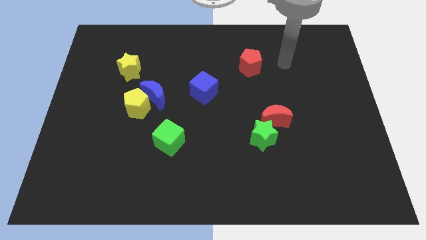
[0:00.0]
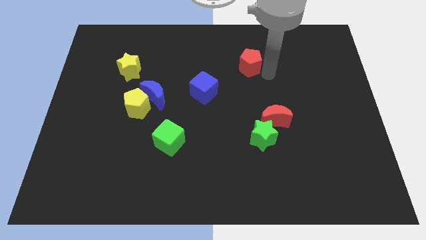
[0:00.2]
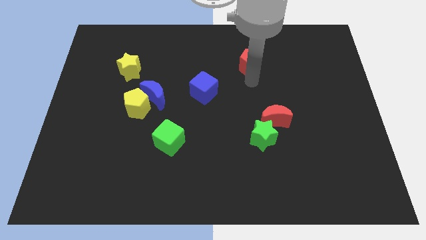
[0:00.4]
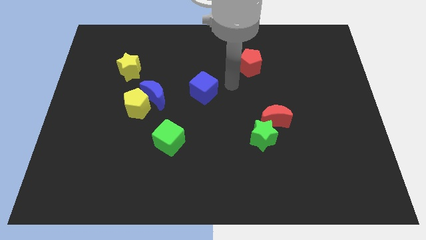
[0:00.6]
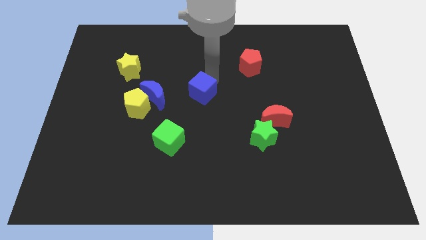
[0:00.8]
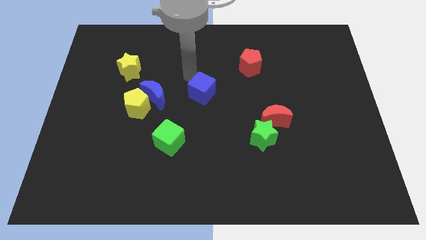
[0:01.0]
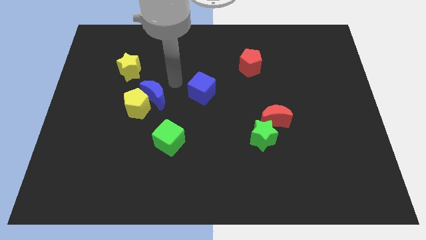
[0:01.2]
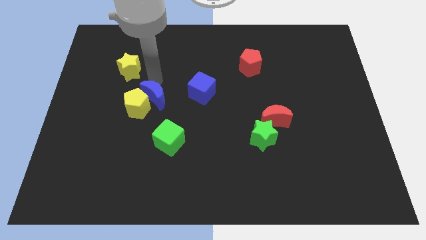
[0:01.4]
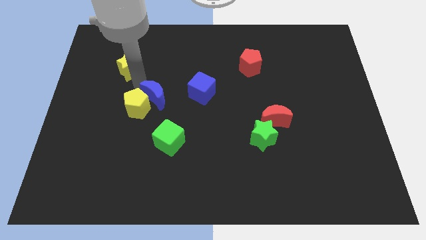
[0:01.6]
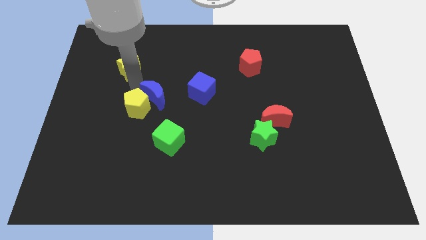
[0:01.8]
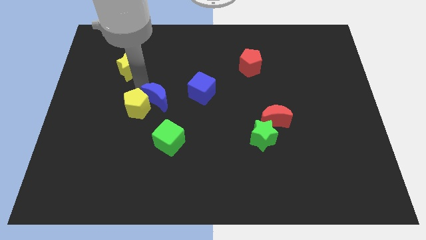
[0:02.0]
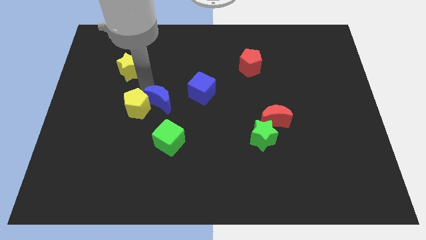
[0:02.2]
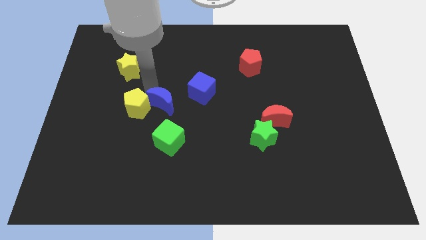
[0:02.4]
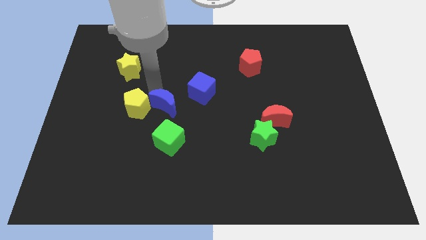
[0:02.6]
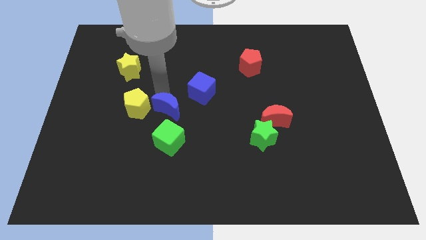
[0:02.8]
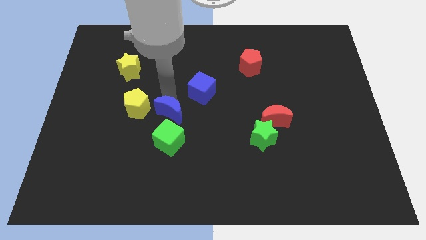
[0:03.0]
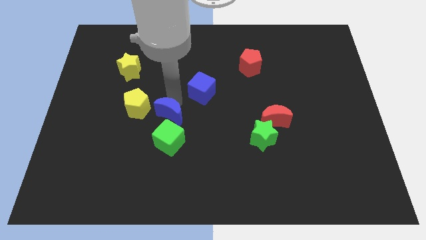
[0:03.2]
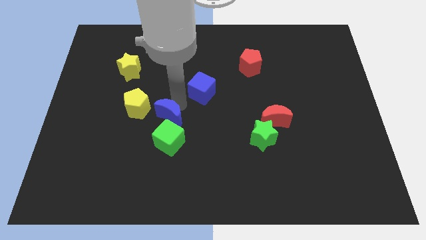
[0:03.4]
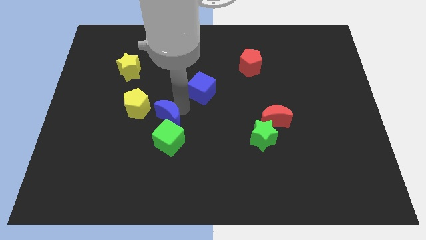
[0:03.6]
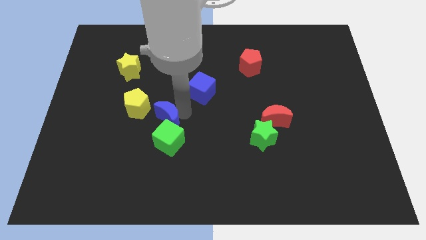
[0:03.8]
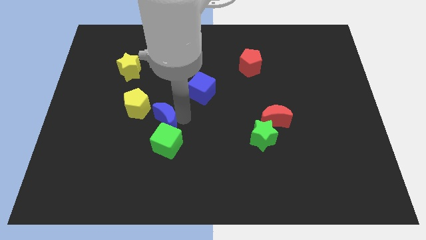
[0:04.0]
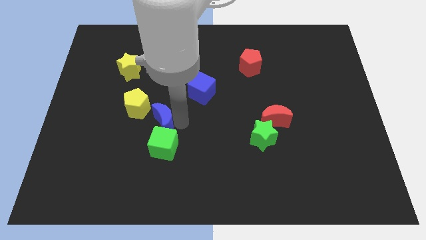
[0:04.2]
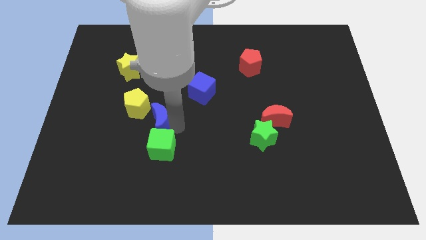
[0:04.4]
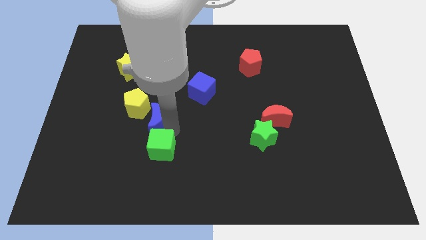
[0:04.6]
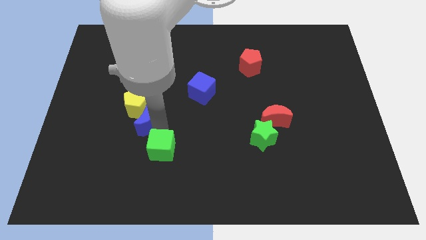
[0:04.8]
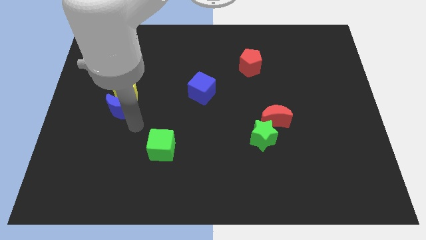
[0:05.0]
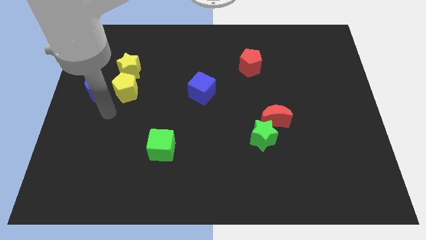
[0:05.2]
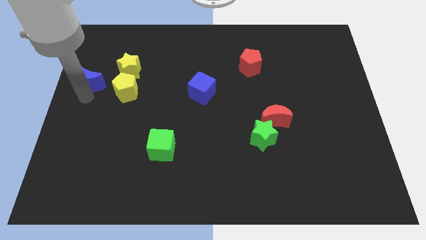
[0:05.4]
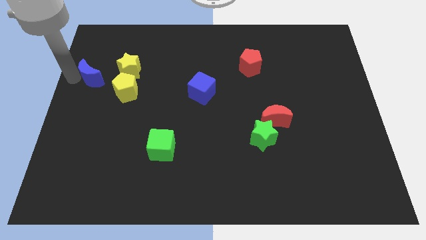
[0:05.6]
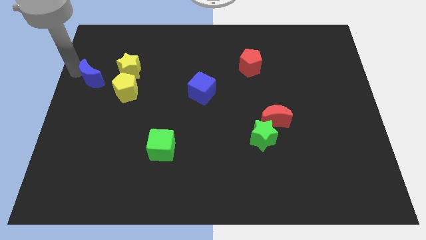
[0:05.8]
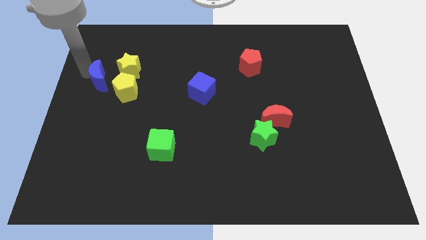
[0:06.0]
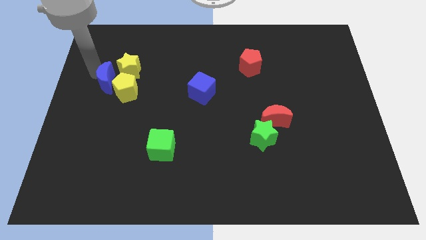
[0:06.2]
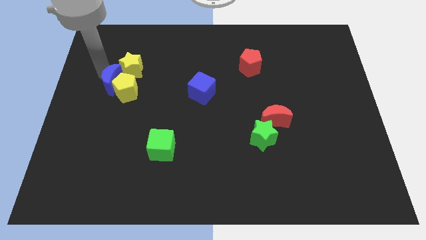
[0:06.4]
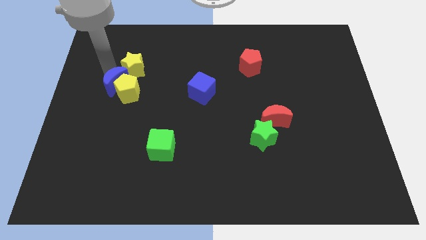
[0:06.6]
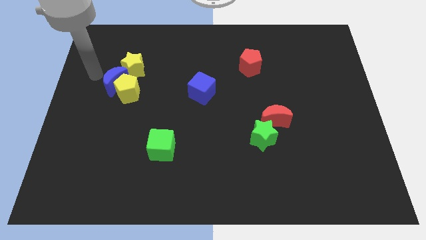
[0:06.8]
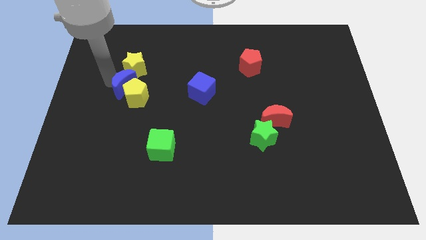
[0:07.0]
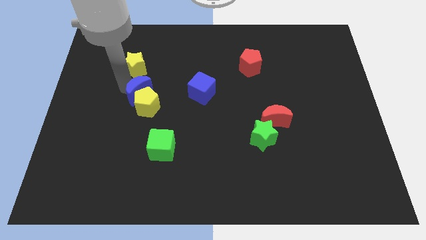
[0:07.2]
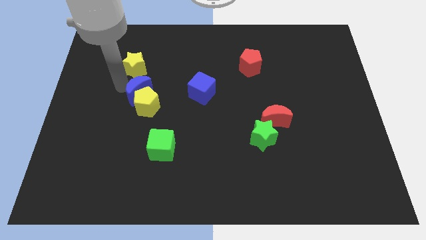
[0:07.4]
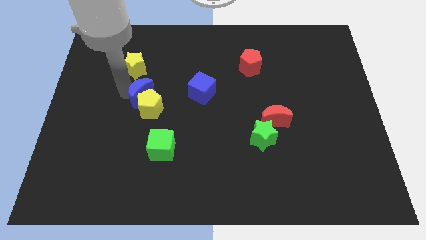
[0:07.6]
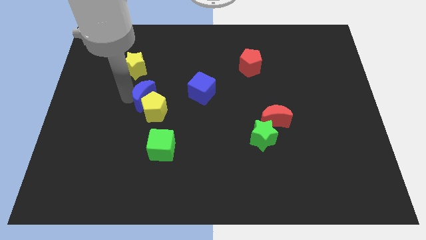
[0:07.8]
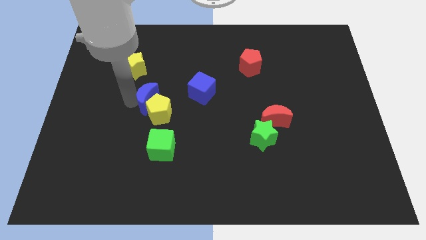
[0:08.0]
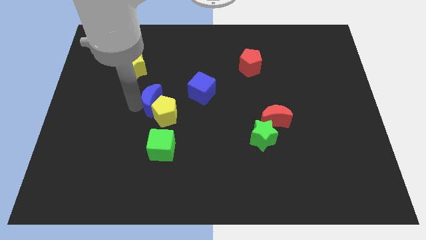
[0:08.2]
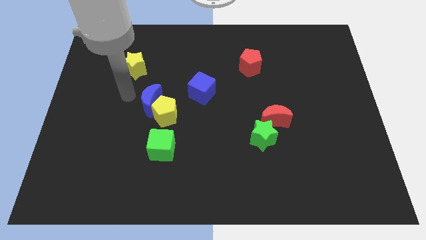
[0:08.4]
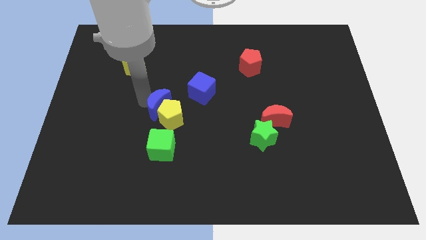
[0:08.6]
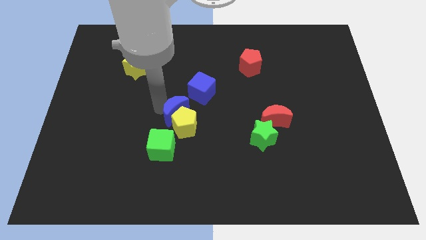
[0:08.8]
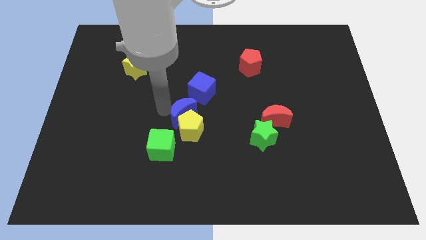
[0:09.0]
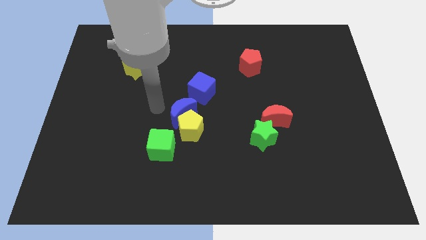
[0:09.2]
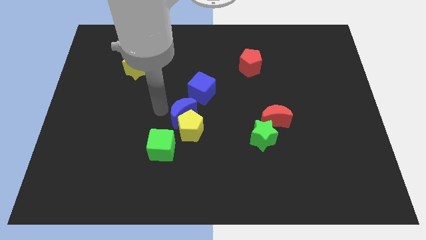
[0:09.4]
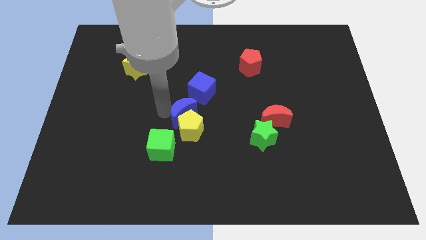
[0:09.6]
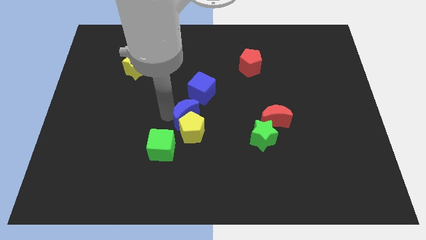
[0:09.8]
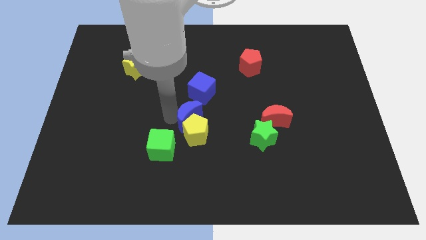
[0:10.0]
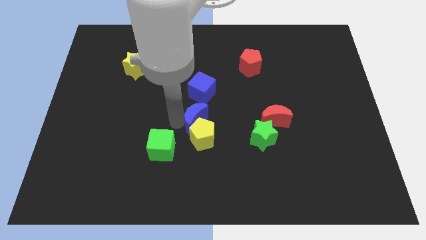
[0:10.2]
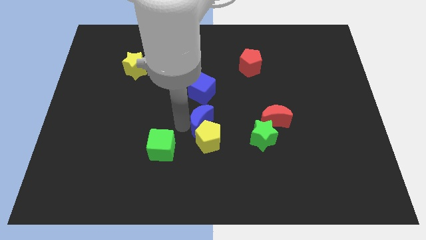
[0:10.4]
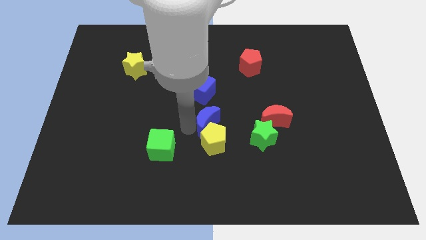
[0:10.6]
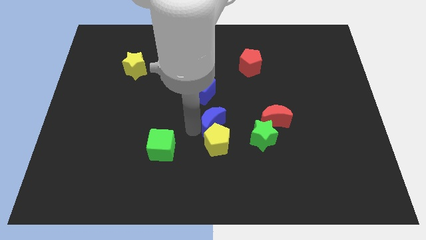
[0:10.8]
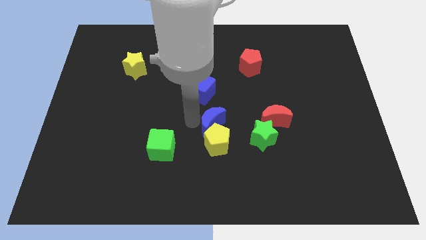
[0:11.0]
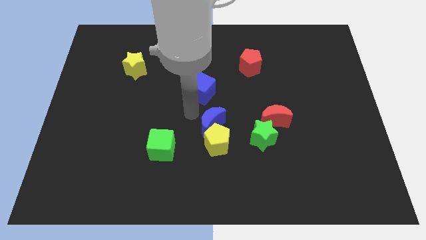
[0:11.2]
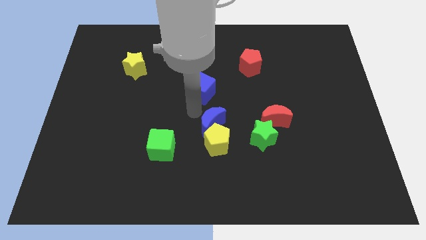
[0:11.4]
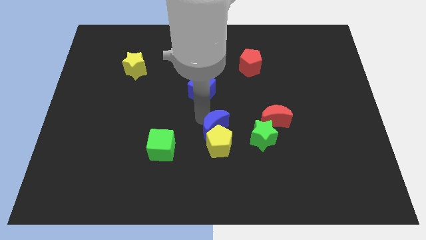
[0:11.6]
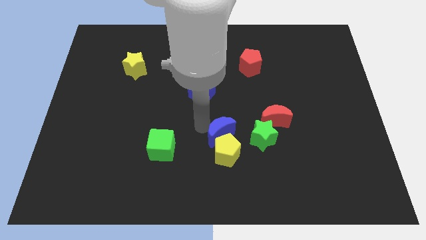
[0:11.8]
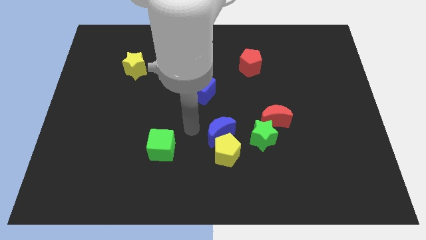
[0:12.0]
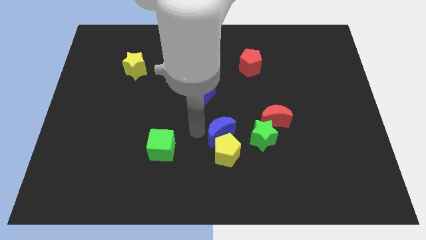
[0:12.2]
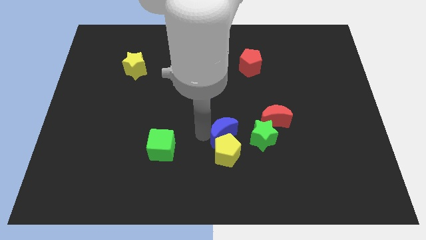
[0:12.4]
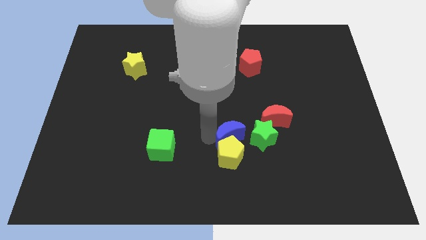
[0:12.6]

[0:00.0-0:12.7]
push the blue moon diagonally down and to the left of the red moon

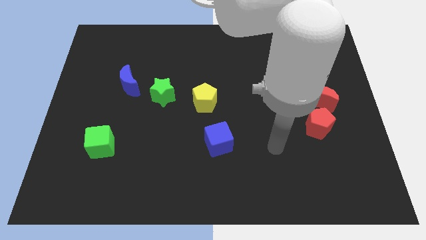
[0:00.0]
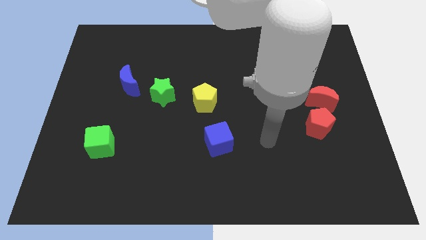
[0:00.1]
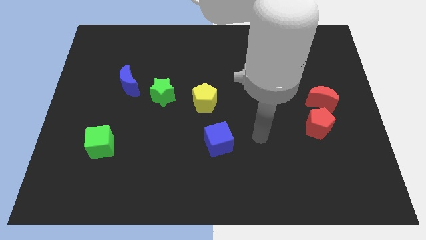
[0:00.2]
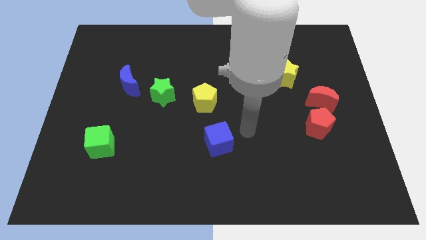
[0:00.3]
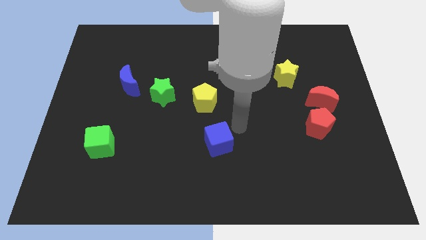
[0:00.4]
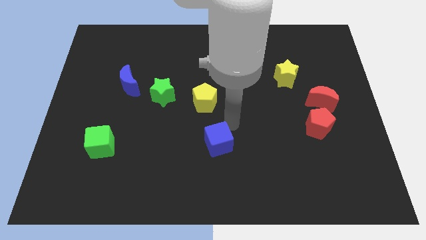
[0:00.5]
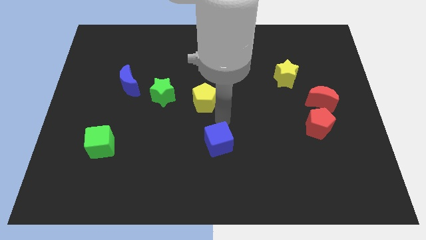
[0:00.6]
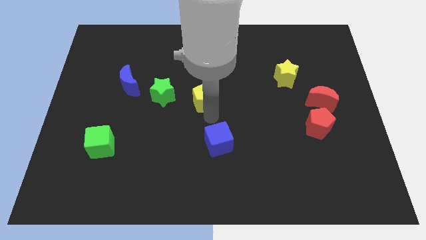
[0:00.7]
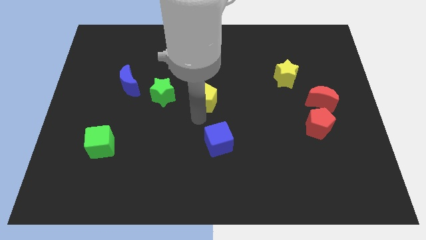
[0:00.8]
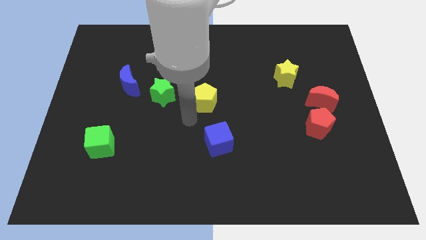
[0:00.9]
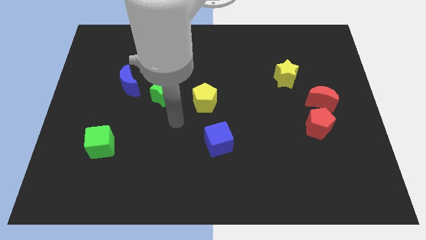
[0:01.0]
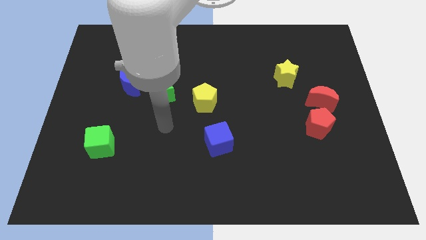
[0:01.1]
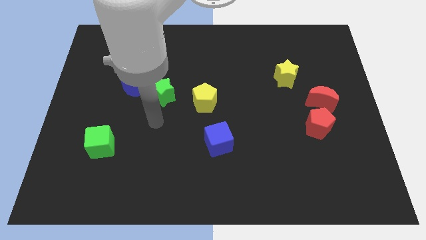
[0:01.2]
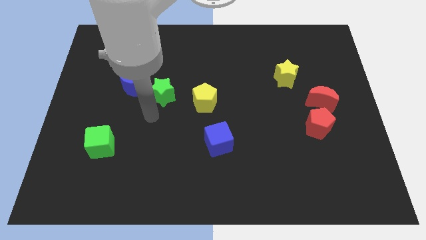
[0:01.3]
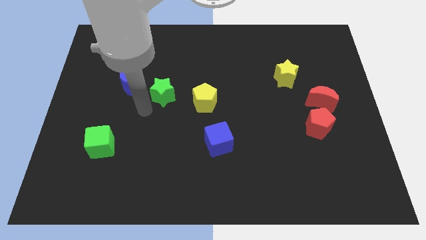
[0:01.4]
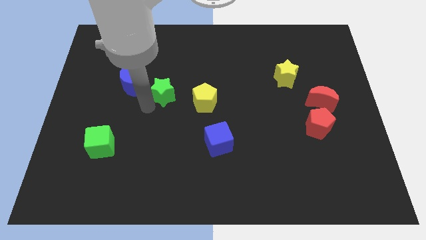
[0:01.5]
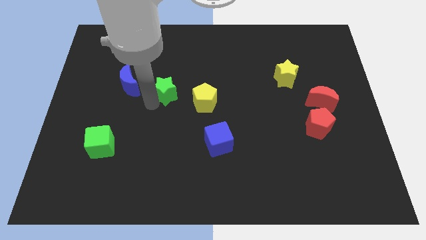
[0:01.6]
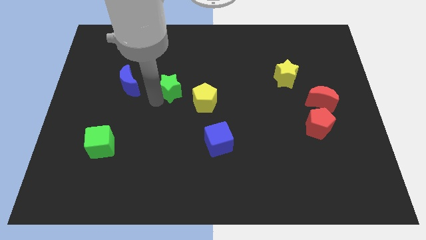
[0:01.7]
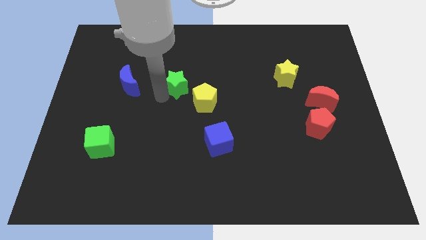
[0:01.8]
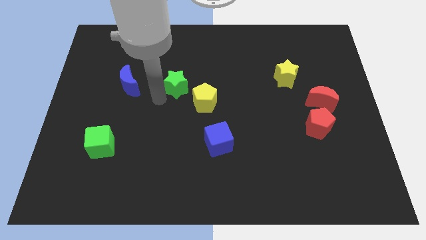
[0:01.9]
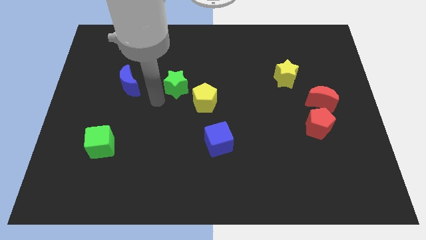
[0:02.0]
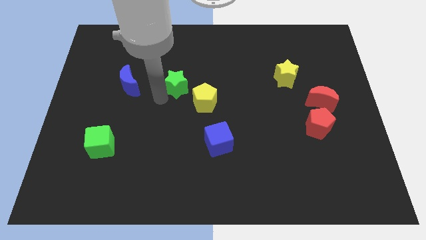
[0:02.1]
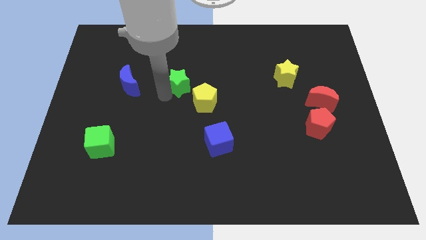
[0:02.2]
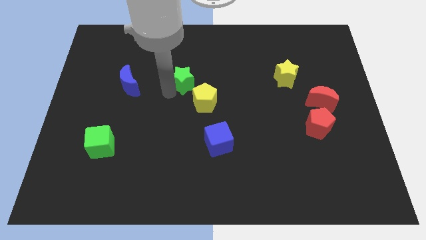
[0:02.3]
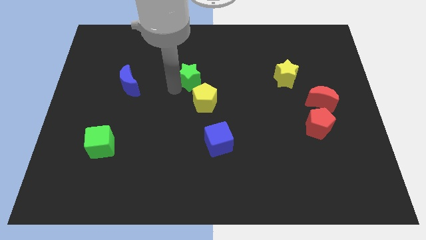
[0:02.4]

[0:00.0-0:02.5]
push the green star above the yellow pentagon
